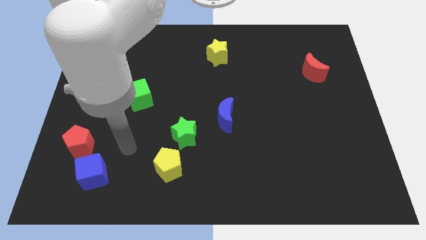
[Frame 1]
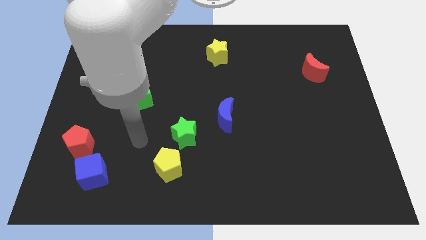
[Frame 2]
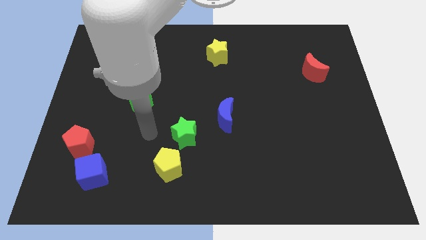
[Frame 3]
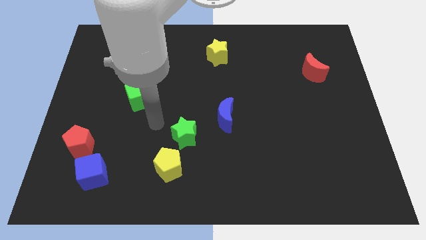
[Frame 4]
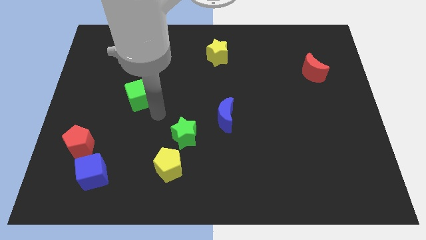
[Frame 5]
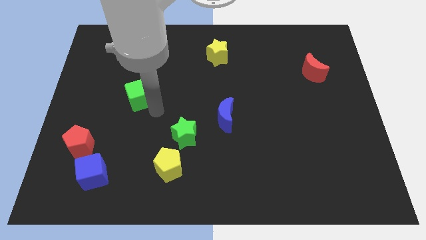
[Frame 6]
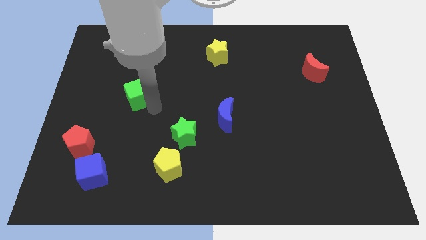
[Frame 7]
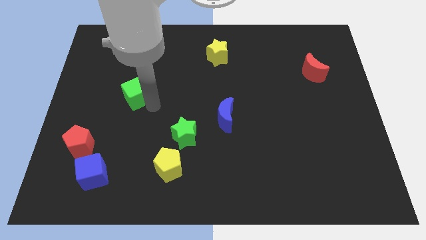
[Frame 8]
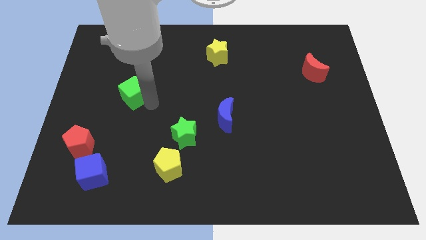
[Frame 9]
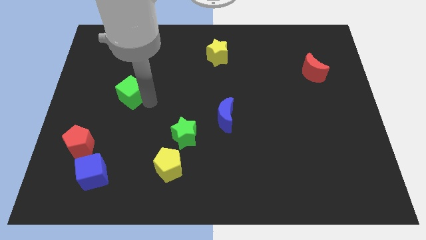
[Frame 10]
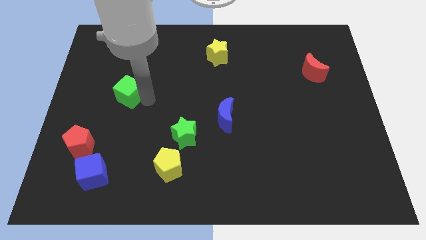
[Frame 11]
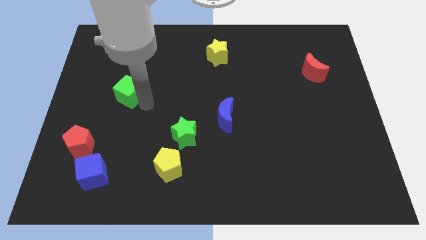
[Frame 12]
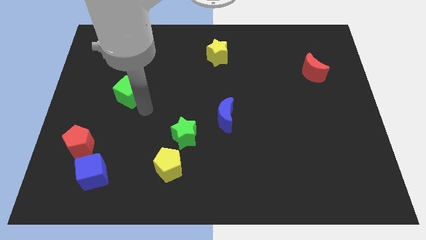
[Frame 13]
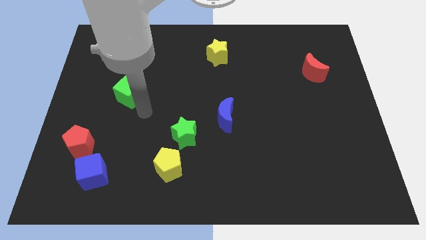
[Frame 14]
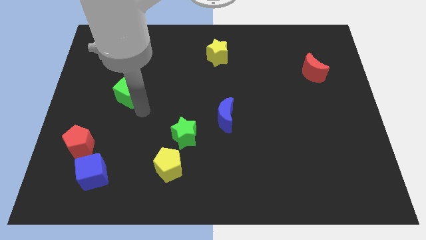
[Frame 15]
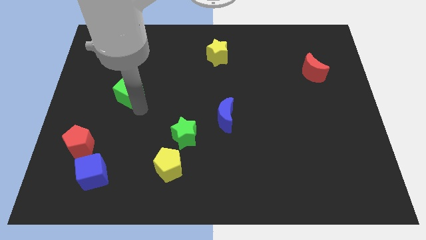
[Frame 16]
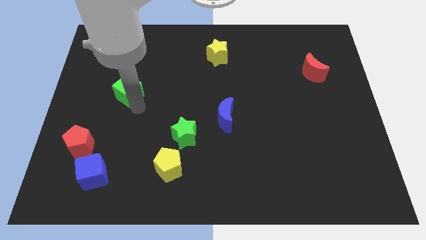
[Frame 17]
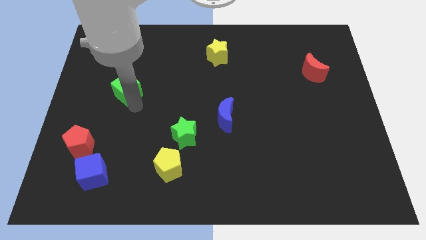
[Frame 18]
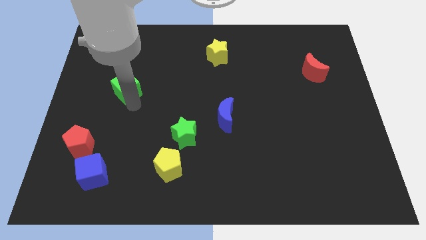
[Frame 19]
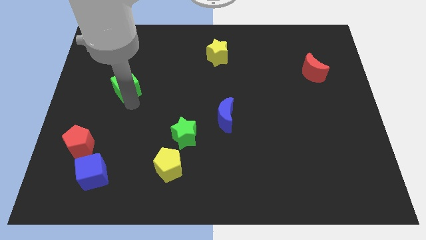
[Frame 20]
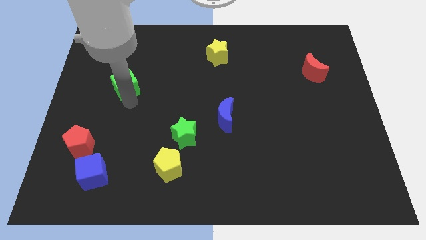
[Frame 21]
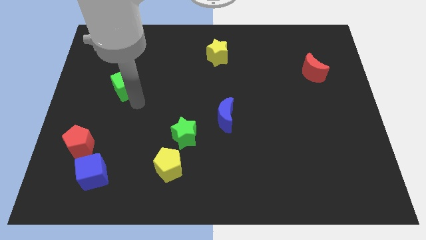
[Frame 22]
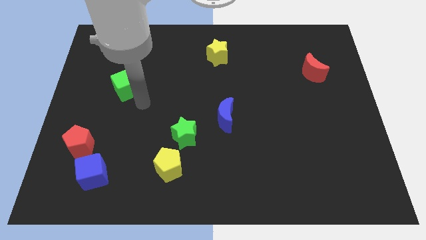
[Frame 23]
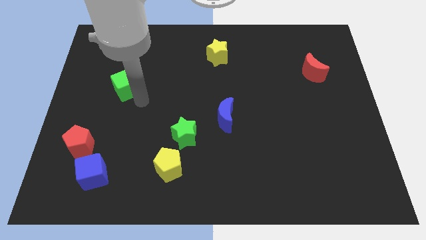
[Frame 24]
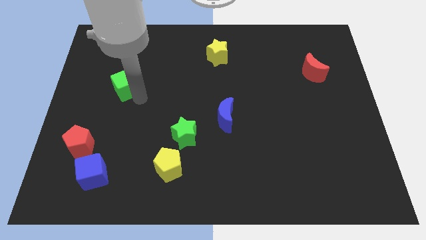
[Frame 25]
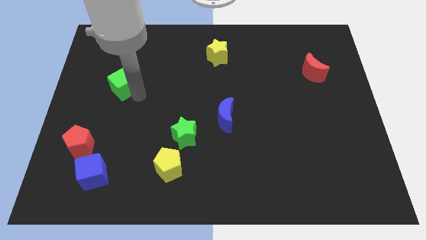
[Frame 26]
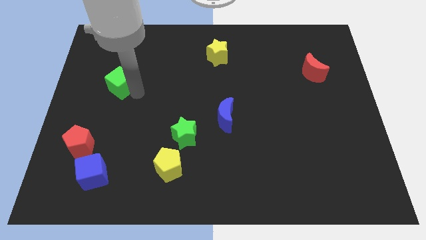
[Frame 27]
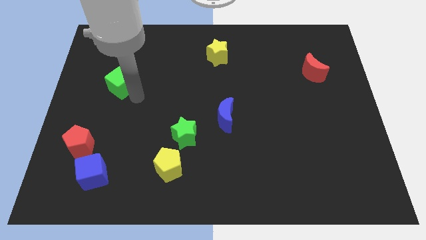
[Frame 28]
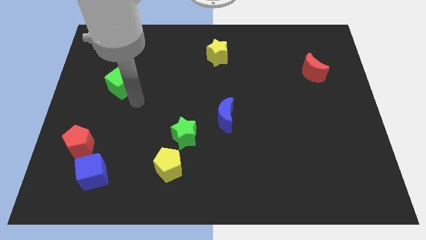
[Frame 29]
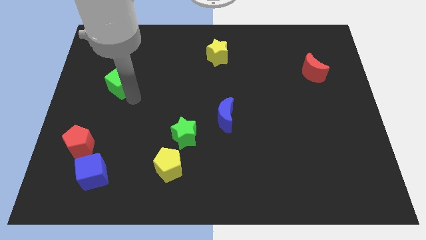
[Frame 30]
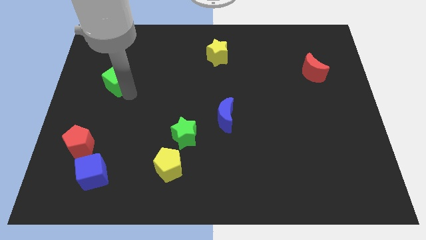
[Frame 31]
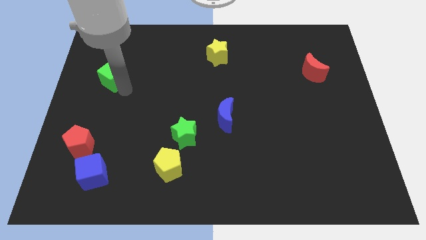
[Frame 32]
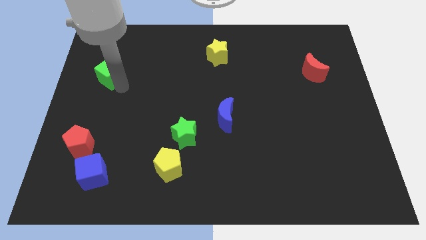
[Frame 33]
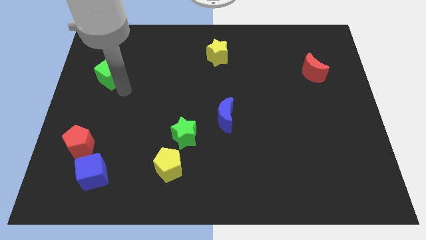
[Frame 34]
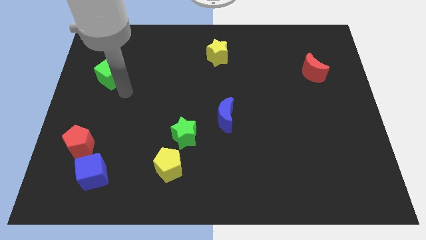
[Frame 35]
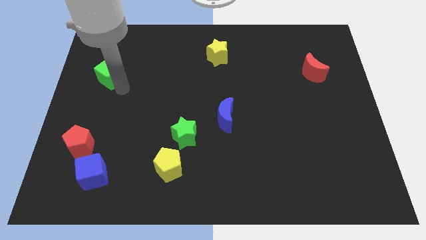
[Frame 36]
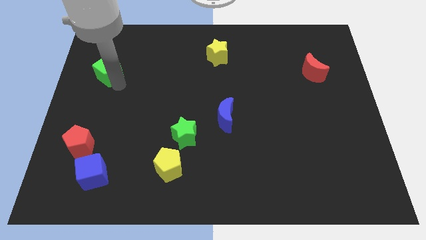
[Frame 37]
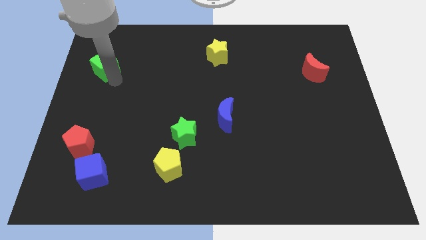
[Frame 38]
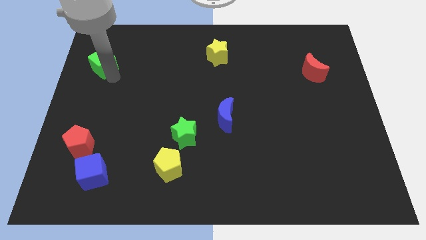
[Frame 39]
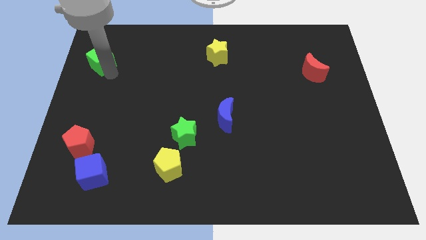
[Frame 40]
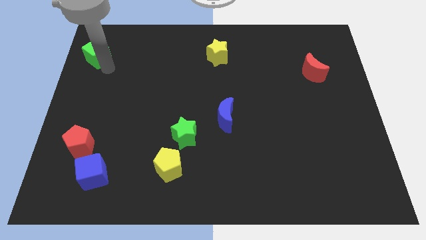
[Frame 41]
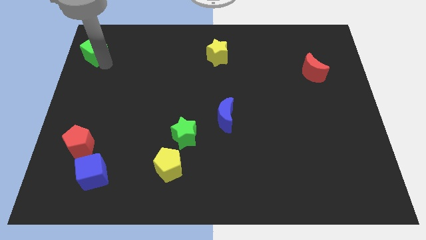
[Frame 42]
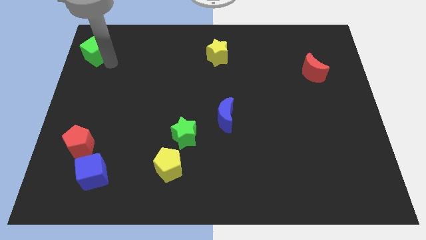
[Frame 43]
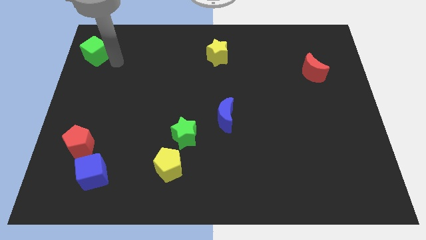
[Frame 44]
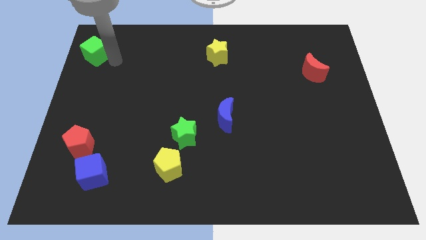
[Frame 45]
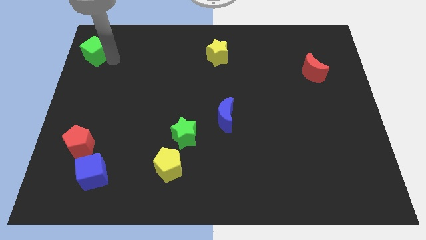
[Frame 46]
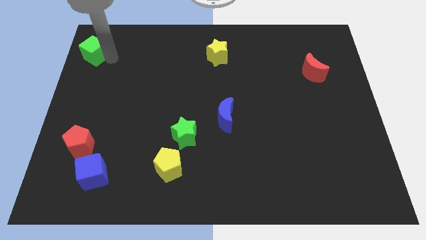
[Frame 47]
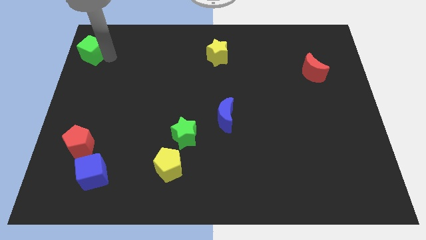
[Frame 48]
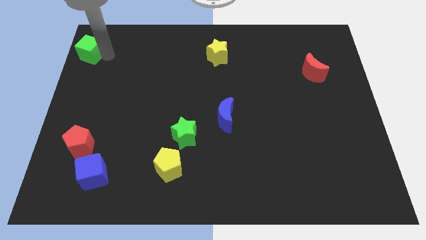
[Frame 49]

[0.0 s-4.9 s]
slide the green cube to the top left

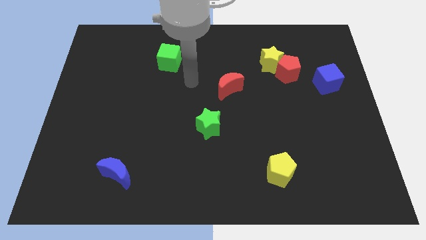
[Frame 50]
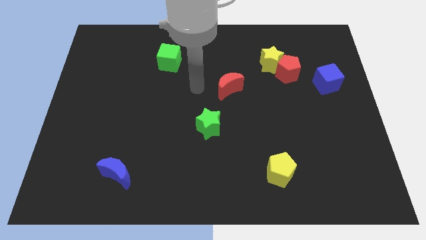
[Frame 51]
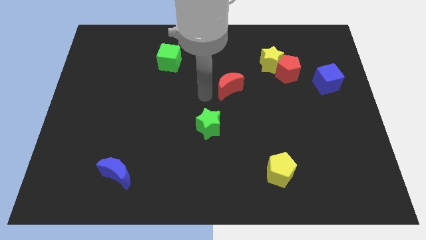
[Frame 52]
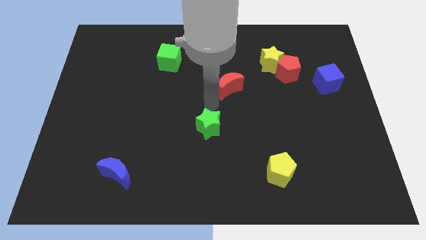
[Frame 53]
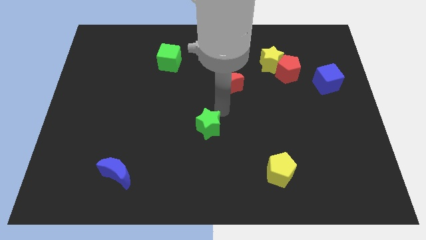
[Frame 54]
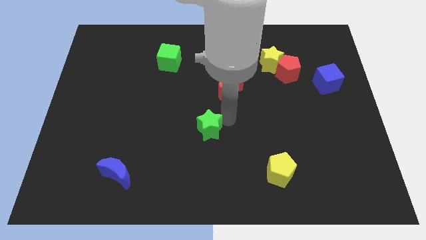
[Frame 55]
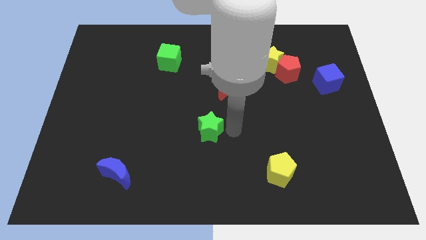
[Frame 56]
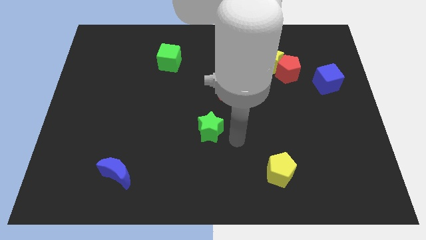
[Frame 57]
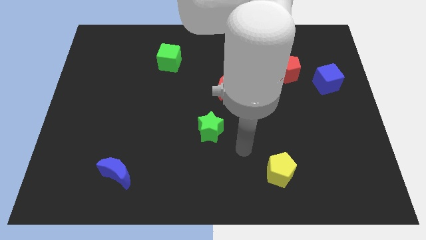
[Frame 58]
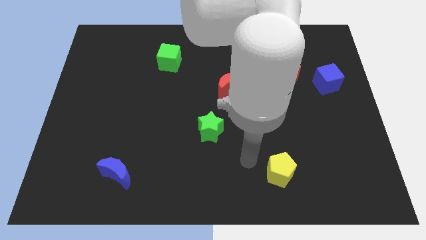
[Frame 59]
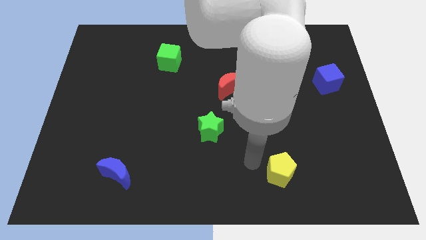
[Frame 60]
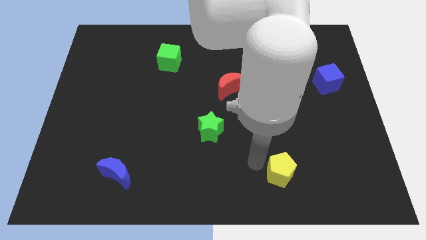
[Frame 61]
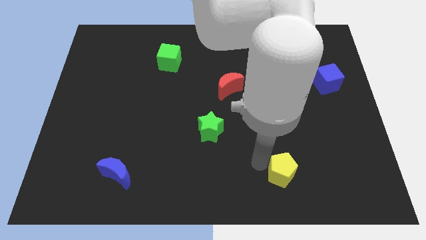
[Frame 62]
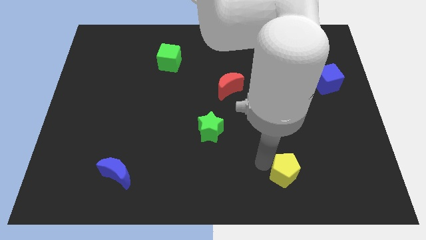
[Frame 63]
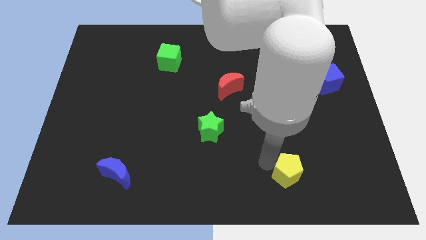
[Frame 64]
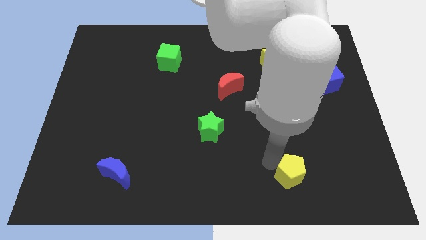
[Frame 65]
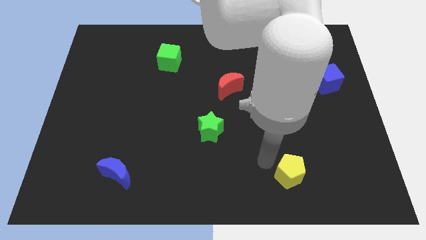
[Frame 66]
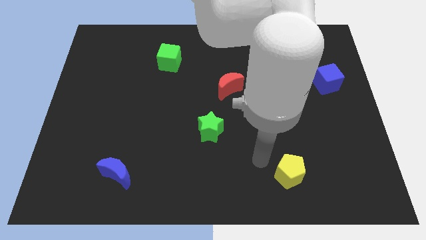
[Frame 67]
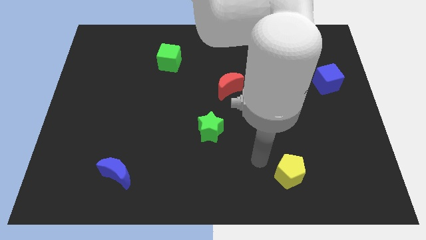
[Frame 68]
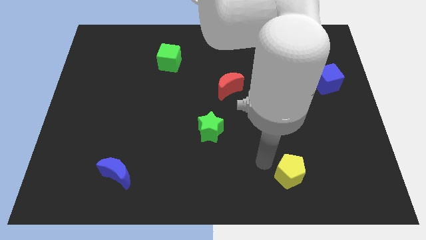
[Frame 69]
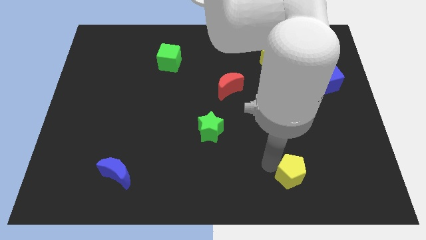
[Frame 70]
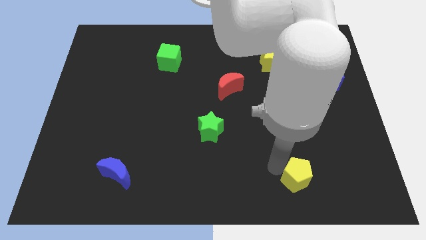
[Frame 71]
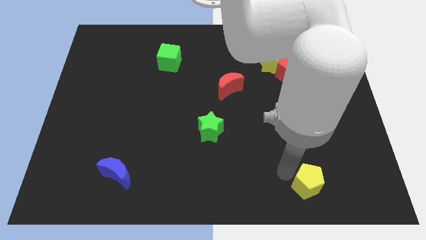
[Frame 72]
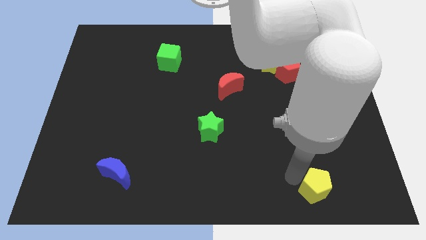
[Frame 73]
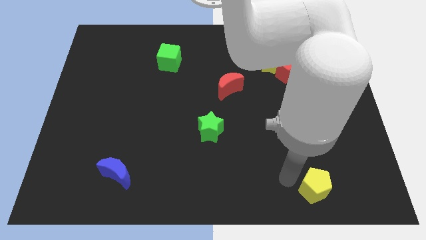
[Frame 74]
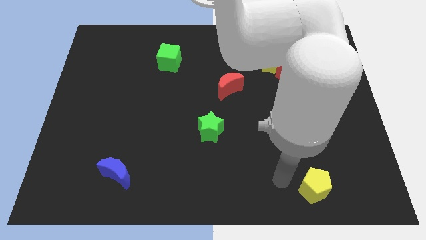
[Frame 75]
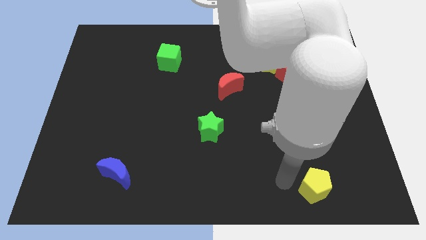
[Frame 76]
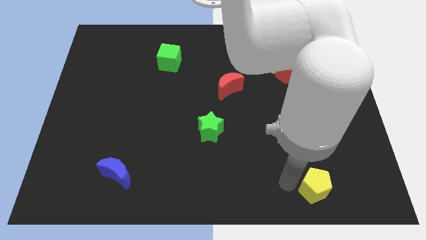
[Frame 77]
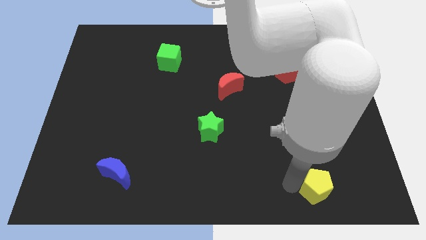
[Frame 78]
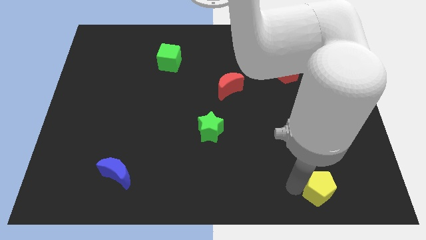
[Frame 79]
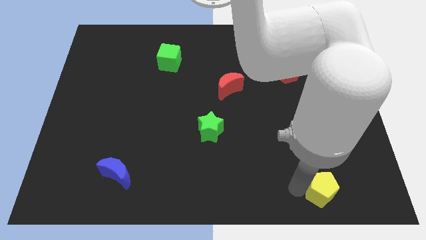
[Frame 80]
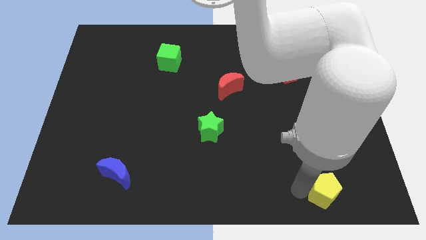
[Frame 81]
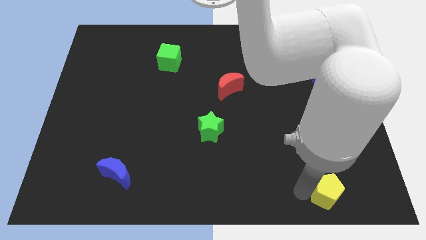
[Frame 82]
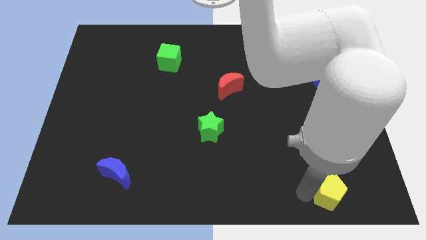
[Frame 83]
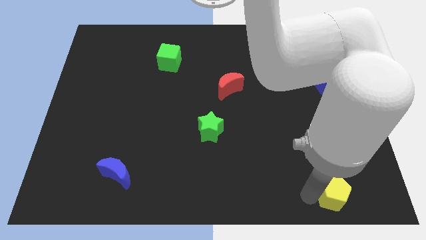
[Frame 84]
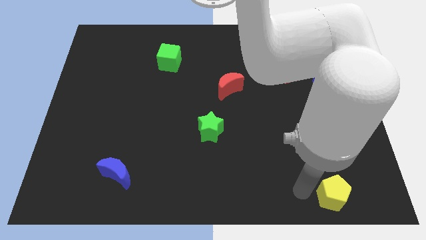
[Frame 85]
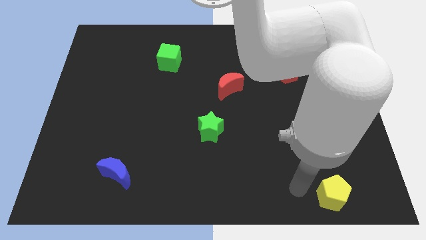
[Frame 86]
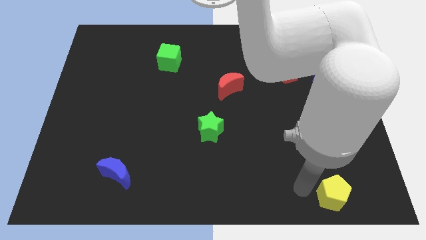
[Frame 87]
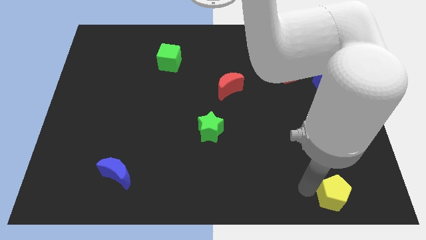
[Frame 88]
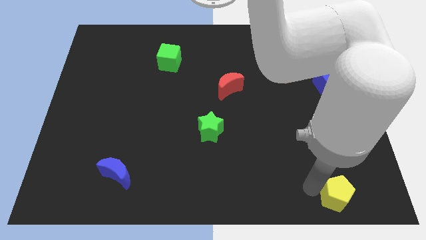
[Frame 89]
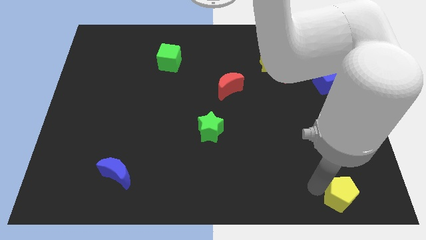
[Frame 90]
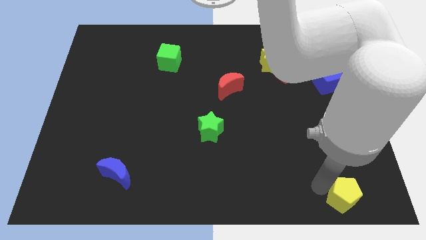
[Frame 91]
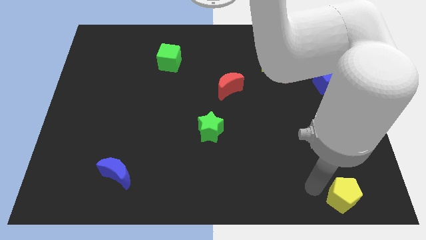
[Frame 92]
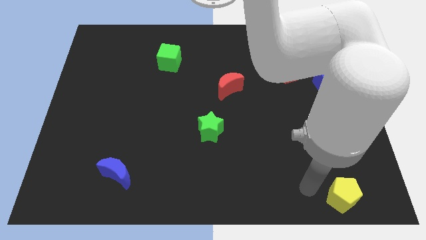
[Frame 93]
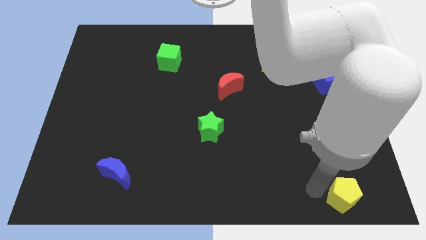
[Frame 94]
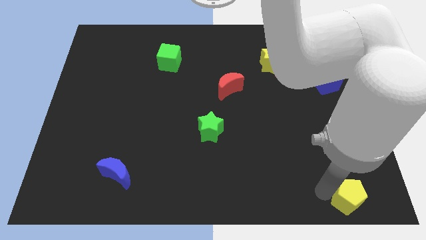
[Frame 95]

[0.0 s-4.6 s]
put the yellow pentagon to the bottom right corner
